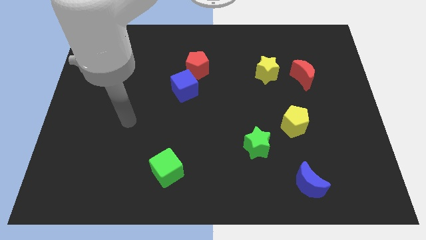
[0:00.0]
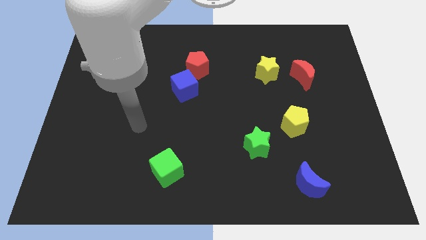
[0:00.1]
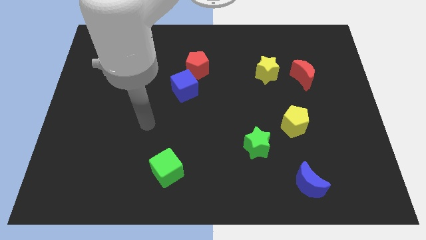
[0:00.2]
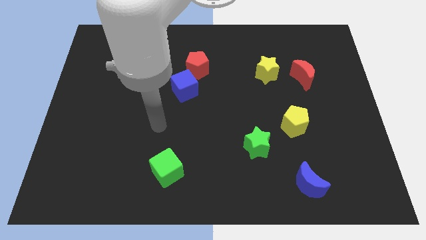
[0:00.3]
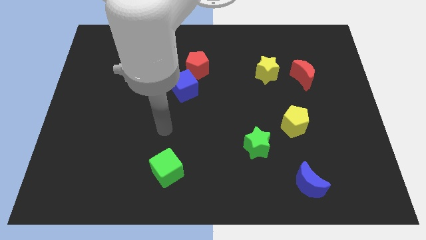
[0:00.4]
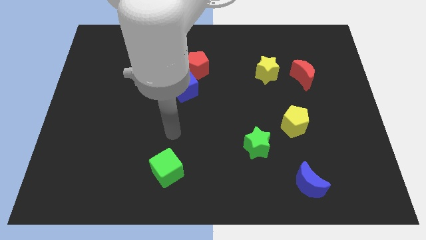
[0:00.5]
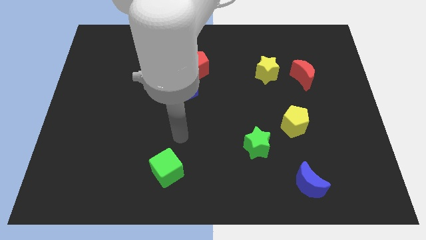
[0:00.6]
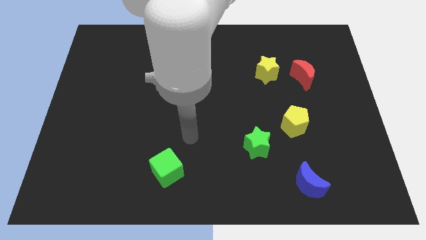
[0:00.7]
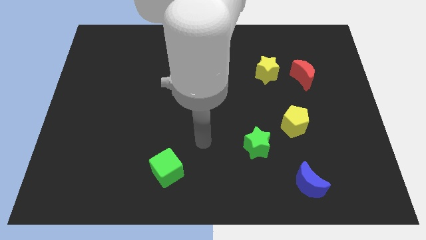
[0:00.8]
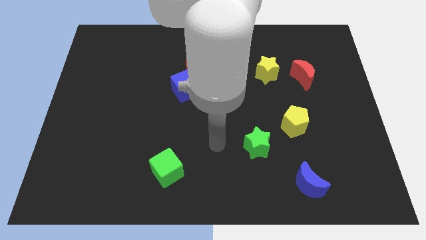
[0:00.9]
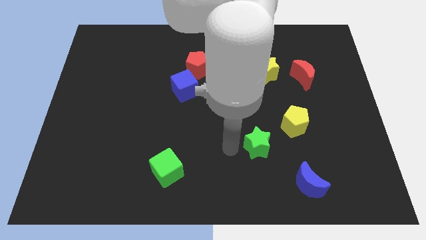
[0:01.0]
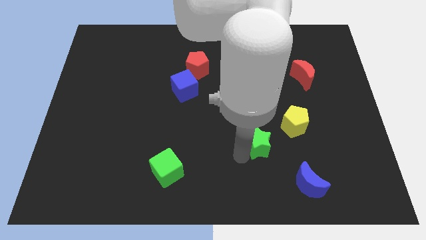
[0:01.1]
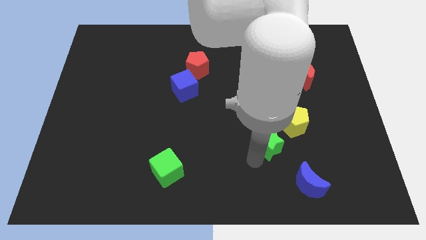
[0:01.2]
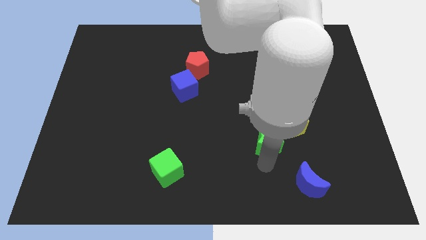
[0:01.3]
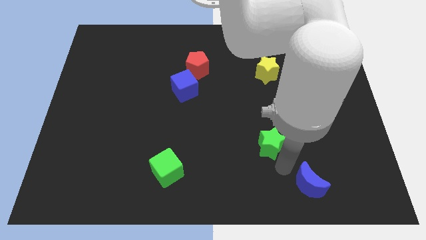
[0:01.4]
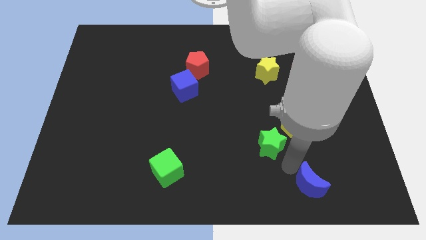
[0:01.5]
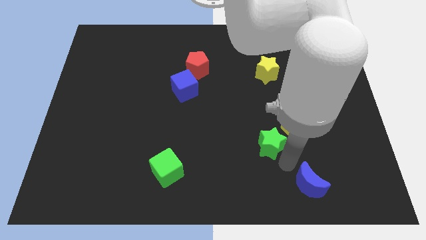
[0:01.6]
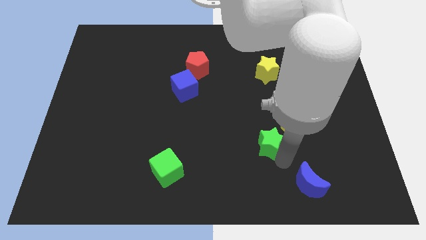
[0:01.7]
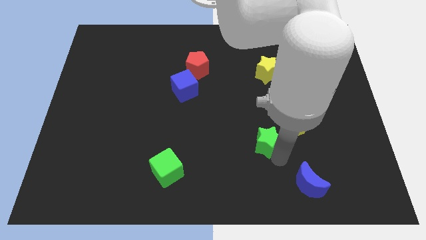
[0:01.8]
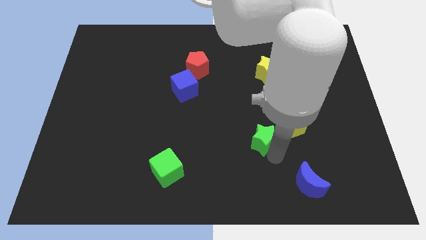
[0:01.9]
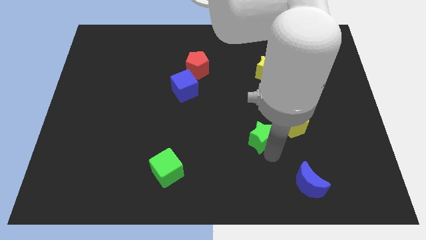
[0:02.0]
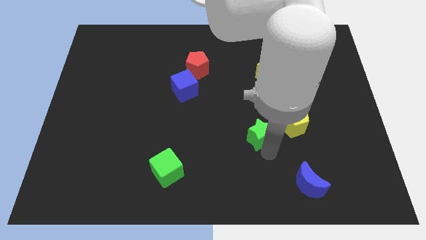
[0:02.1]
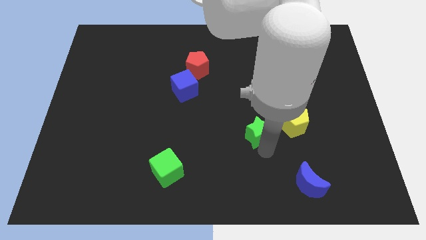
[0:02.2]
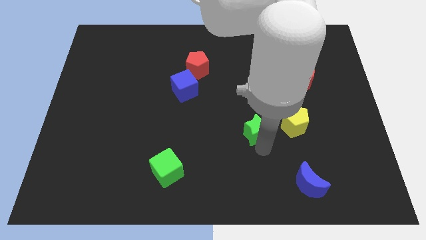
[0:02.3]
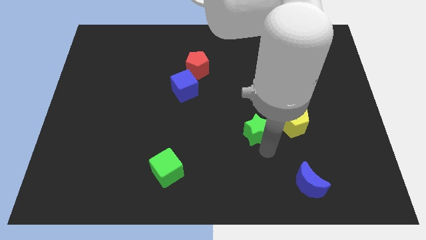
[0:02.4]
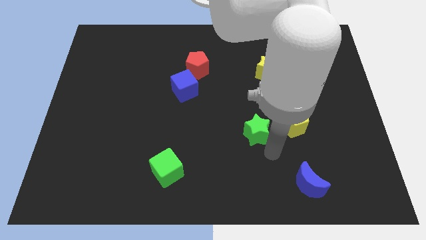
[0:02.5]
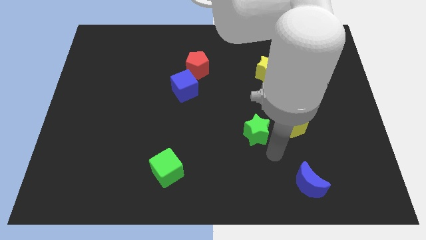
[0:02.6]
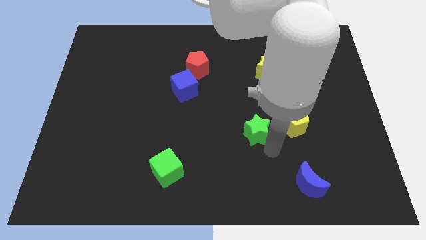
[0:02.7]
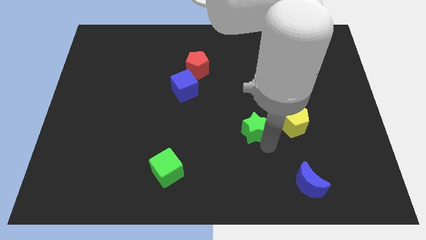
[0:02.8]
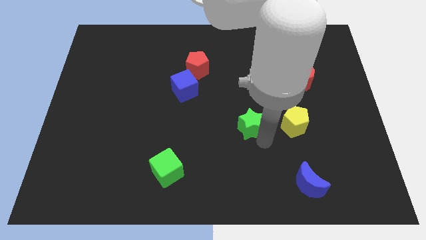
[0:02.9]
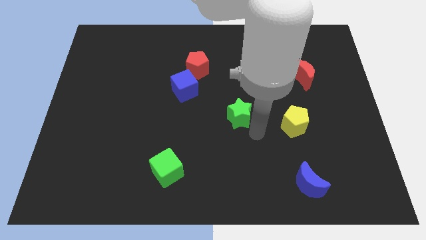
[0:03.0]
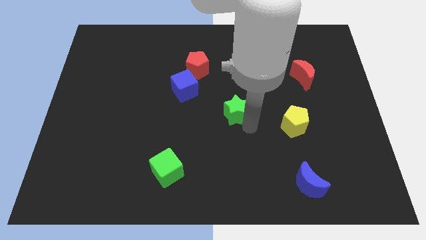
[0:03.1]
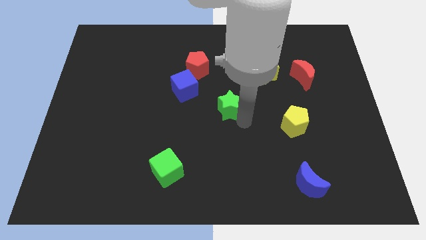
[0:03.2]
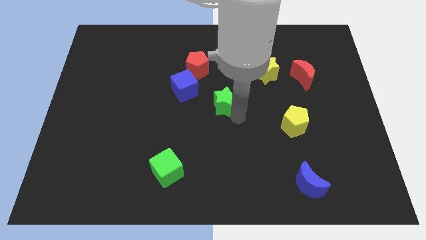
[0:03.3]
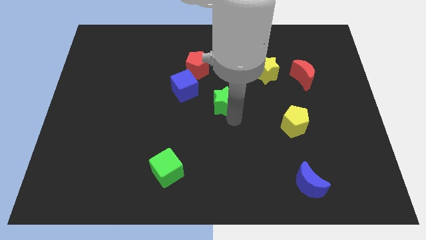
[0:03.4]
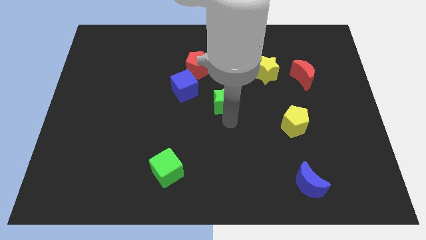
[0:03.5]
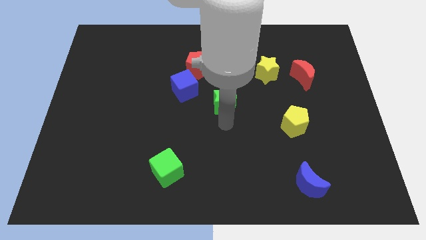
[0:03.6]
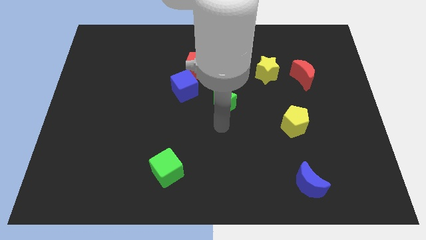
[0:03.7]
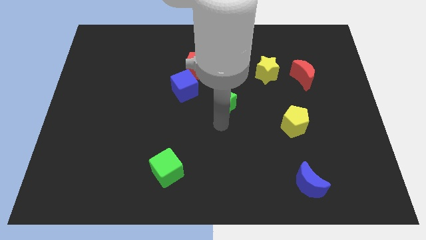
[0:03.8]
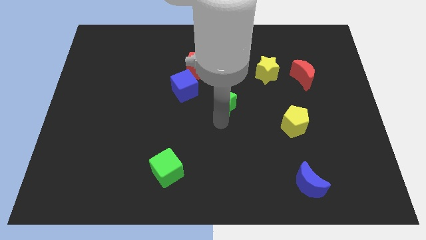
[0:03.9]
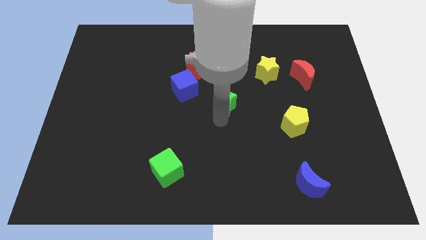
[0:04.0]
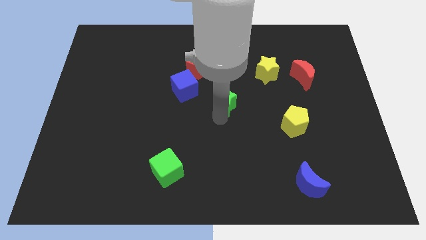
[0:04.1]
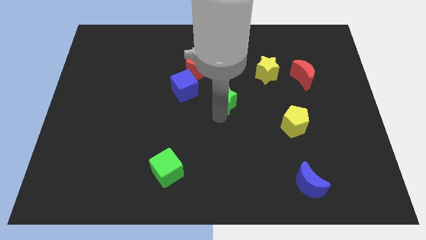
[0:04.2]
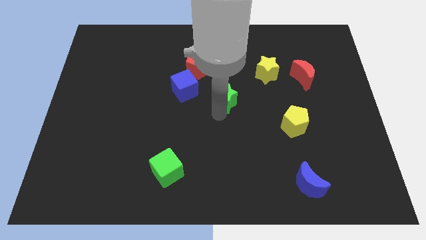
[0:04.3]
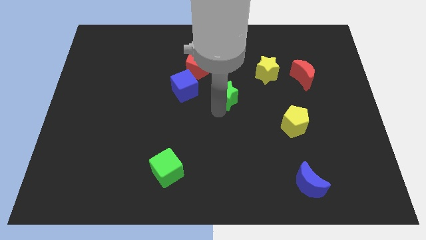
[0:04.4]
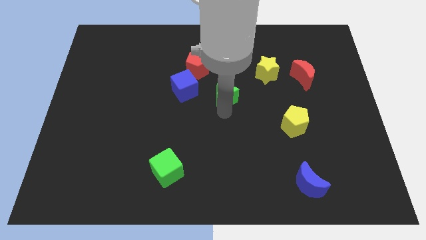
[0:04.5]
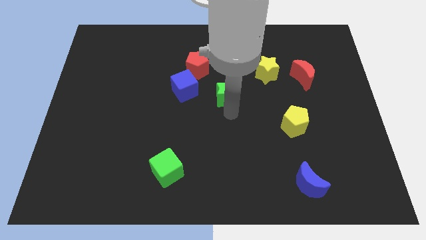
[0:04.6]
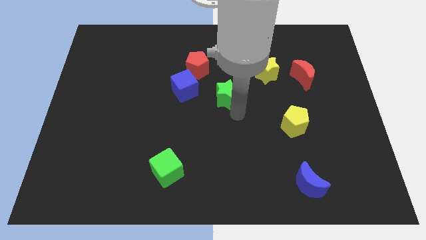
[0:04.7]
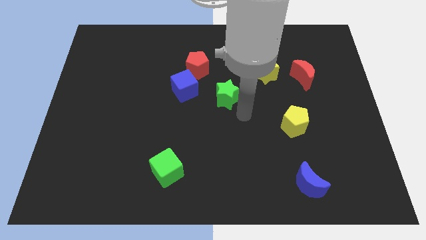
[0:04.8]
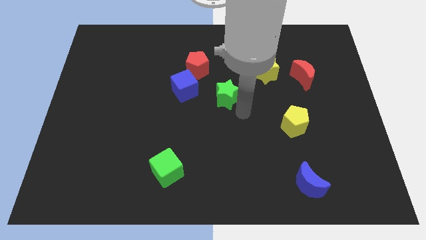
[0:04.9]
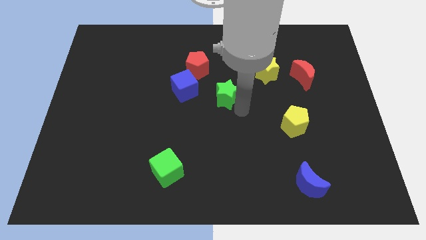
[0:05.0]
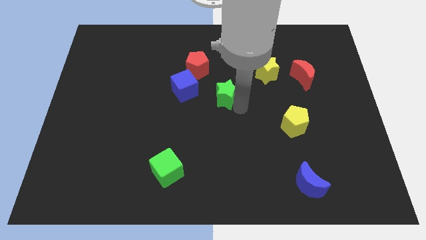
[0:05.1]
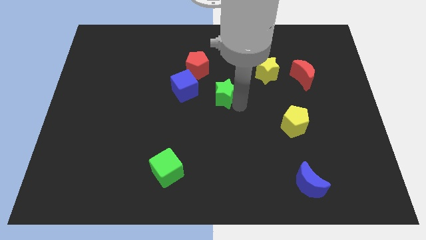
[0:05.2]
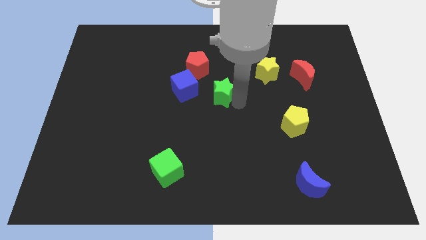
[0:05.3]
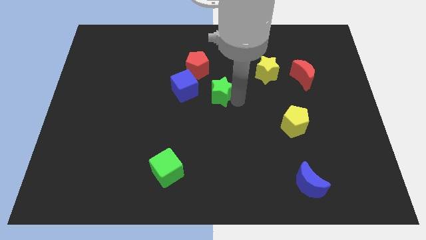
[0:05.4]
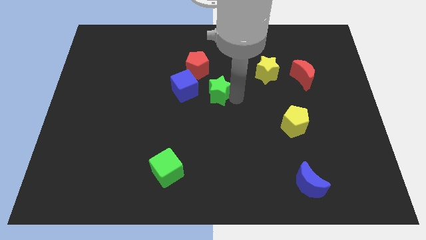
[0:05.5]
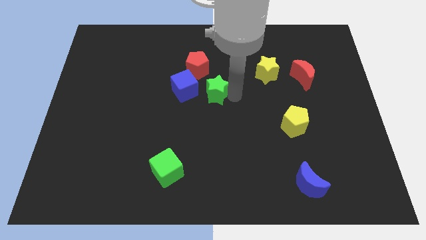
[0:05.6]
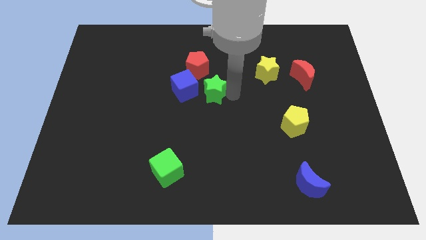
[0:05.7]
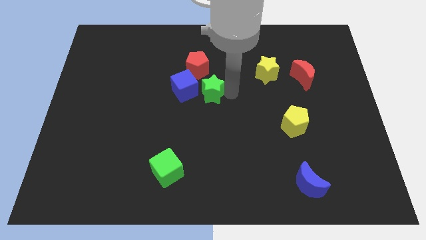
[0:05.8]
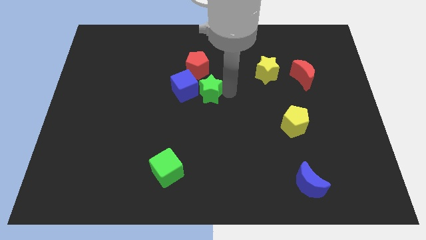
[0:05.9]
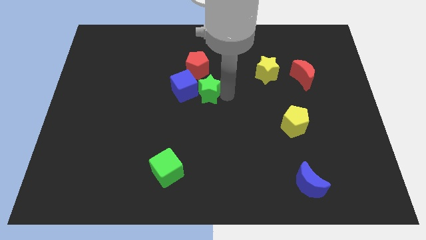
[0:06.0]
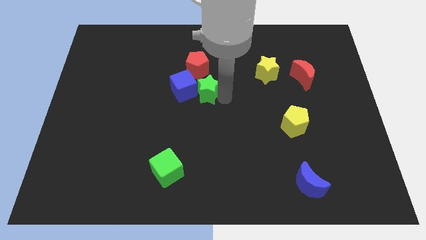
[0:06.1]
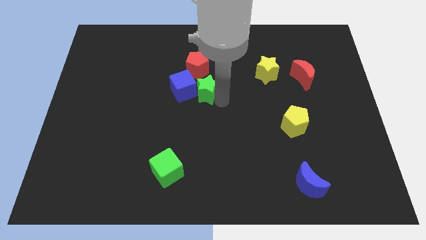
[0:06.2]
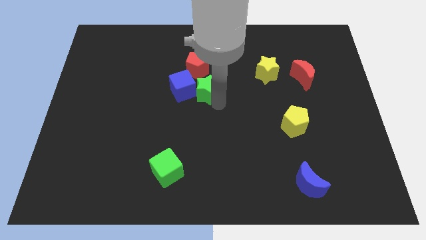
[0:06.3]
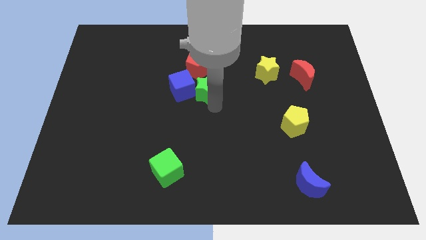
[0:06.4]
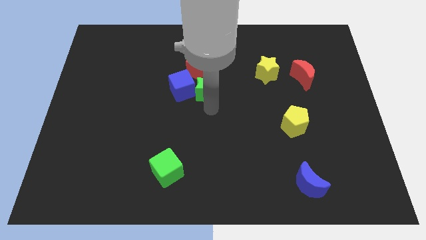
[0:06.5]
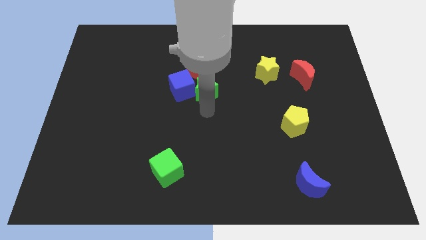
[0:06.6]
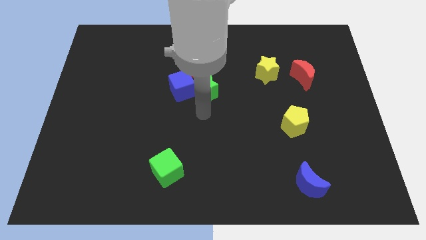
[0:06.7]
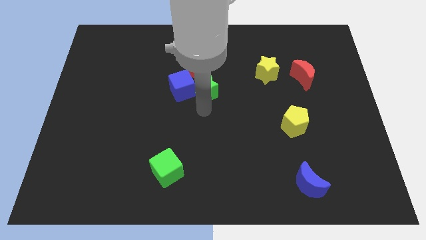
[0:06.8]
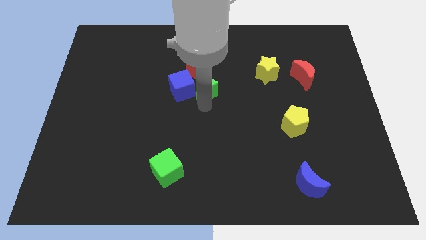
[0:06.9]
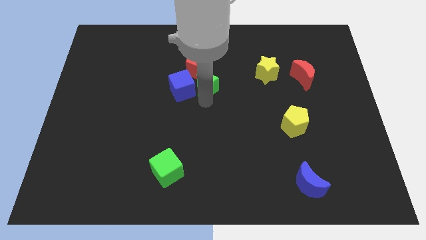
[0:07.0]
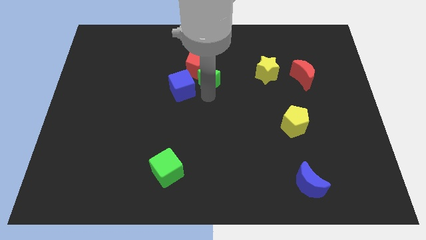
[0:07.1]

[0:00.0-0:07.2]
put the green star to the red pentagon

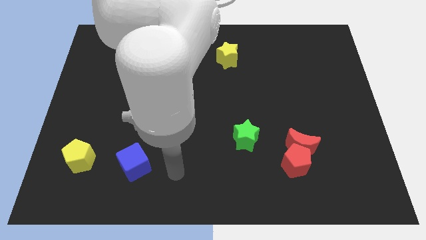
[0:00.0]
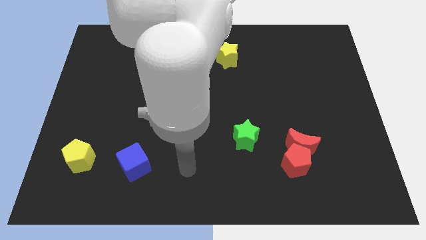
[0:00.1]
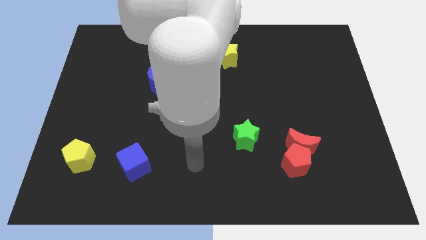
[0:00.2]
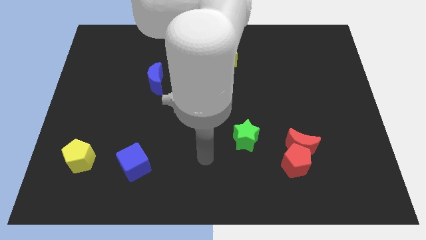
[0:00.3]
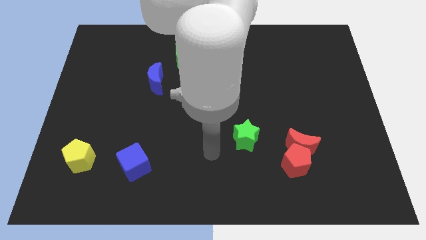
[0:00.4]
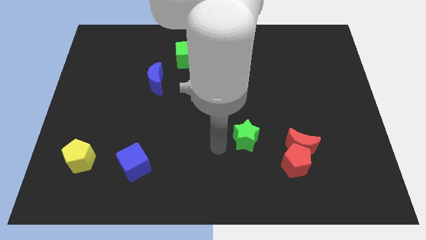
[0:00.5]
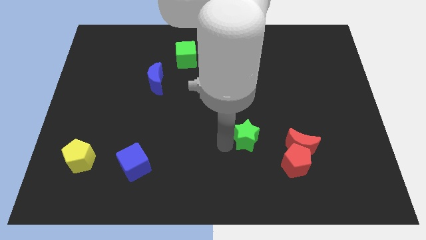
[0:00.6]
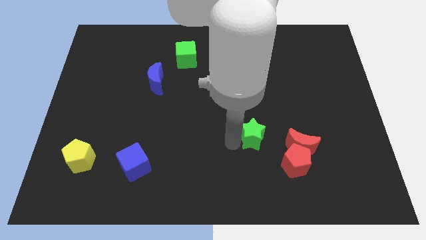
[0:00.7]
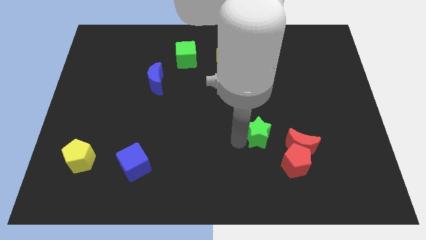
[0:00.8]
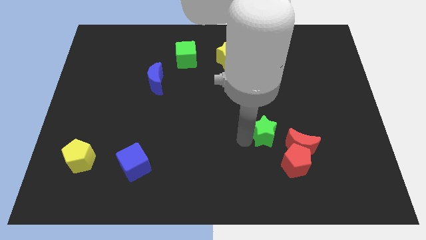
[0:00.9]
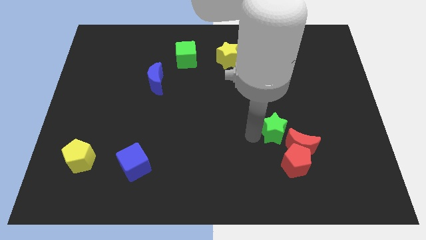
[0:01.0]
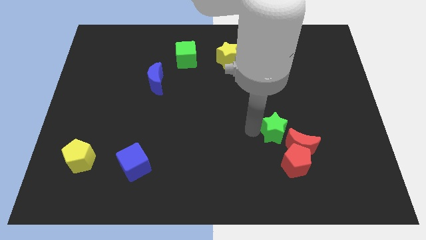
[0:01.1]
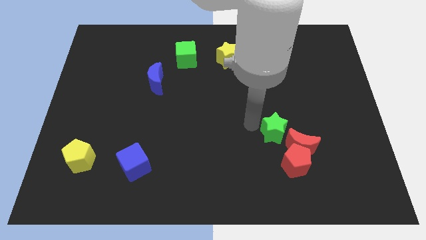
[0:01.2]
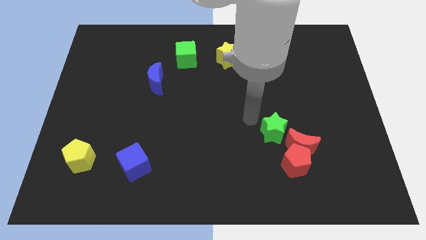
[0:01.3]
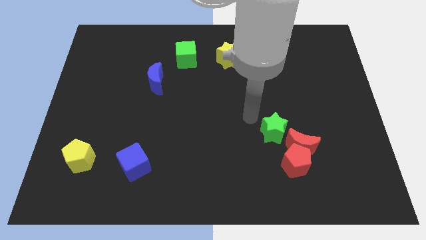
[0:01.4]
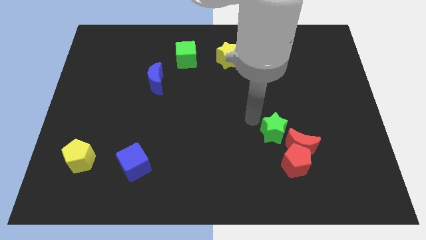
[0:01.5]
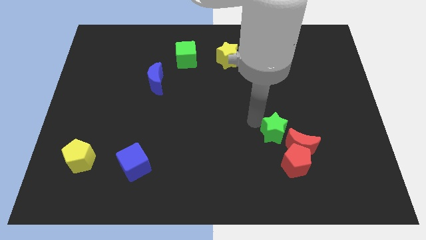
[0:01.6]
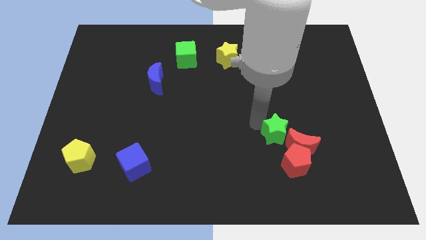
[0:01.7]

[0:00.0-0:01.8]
move the green star close to the red moon
